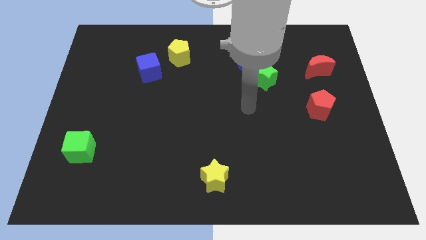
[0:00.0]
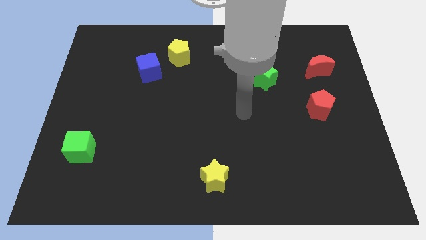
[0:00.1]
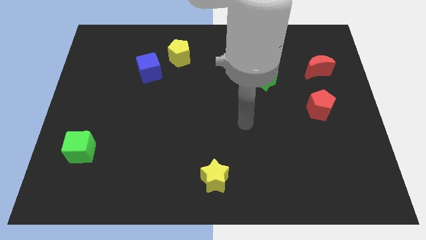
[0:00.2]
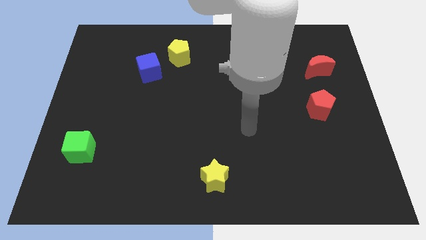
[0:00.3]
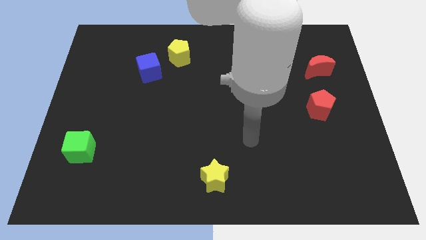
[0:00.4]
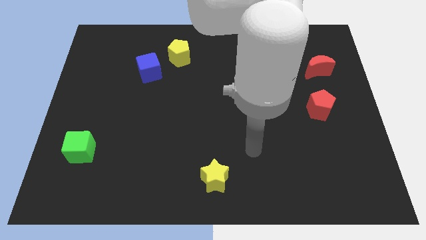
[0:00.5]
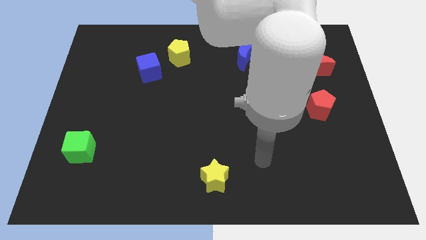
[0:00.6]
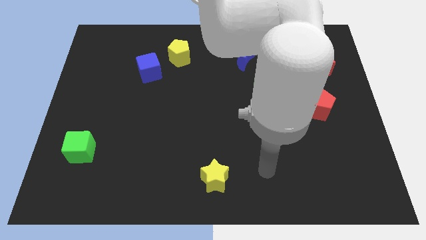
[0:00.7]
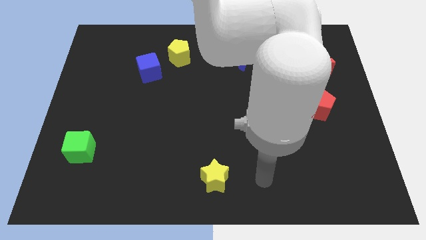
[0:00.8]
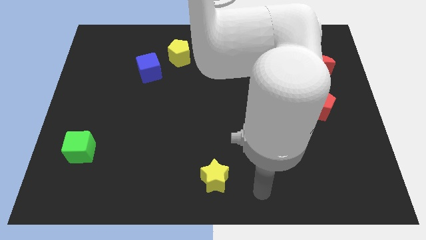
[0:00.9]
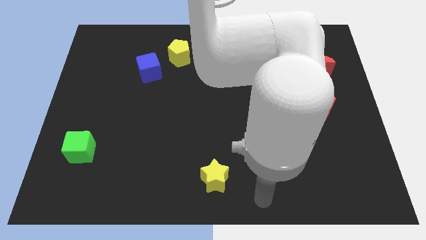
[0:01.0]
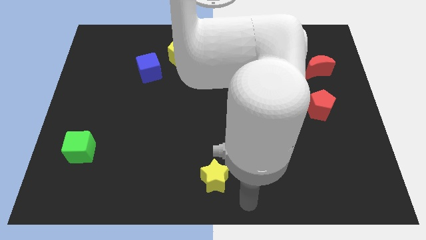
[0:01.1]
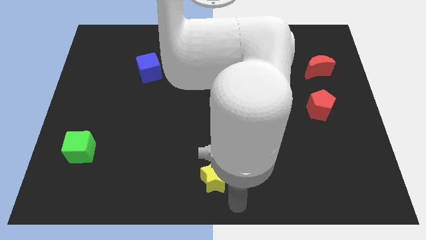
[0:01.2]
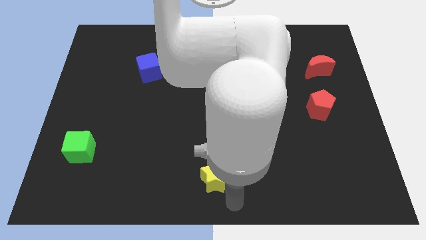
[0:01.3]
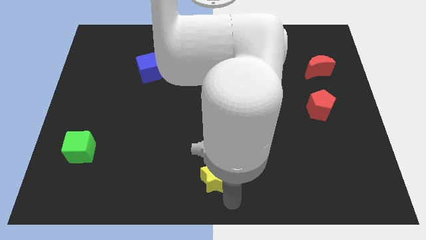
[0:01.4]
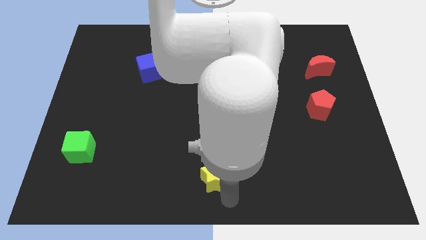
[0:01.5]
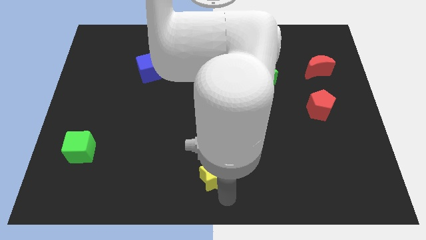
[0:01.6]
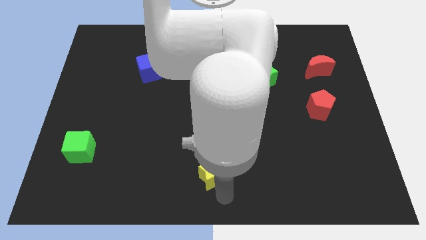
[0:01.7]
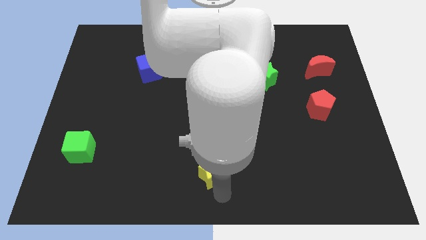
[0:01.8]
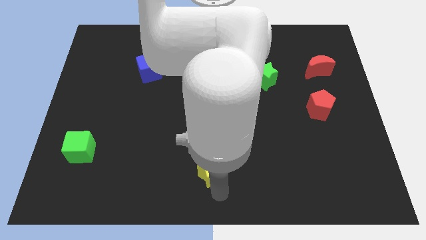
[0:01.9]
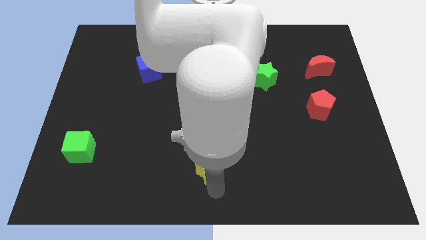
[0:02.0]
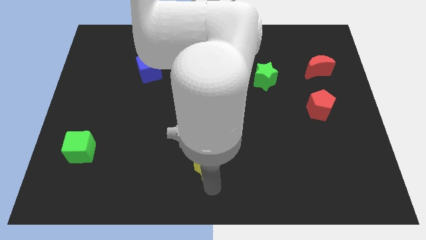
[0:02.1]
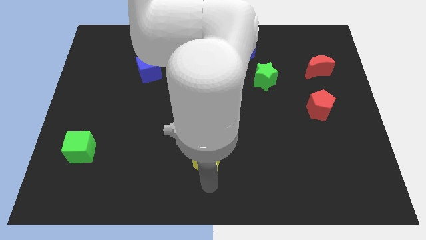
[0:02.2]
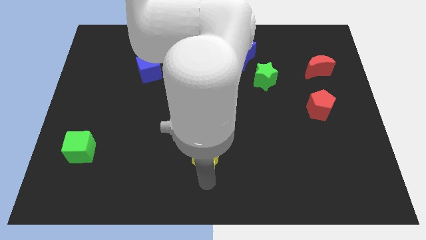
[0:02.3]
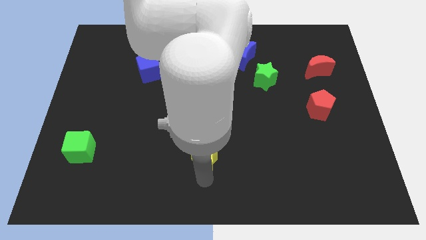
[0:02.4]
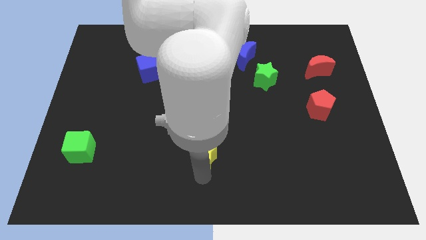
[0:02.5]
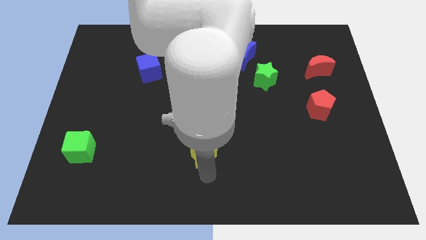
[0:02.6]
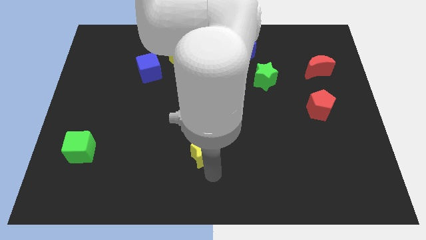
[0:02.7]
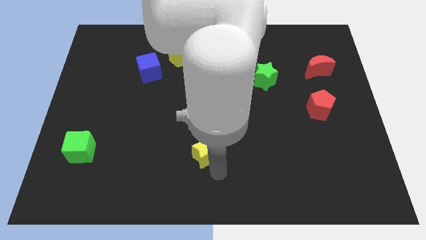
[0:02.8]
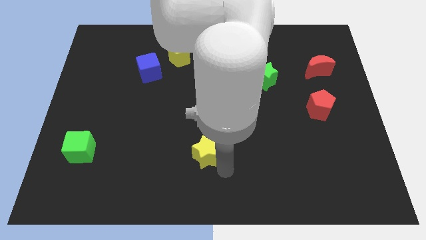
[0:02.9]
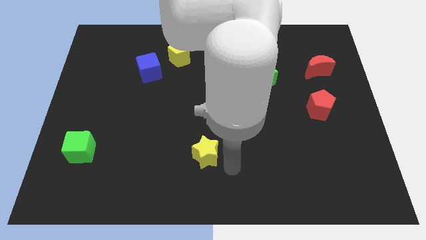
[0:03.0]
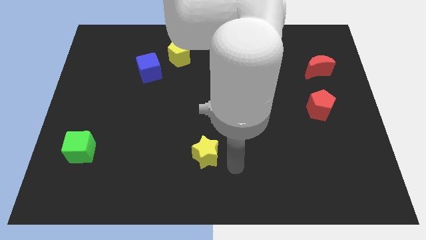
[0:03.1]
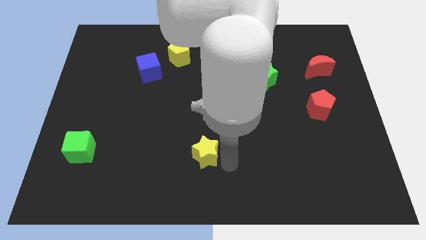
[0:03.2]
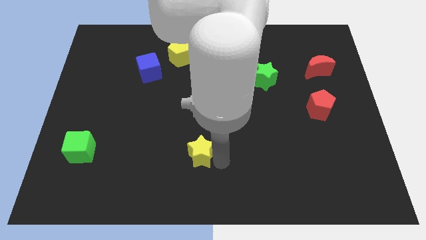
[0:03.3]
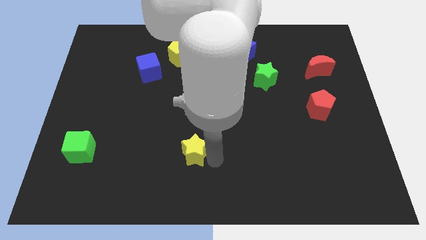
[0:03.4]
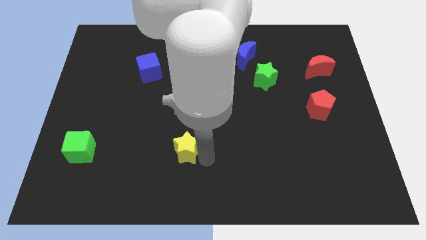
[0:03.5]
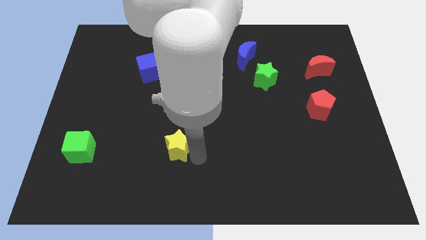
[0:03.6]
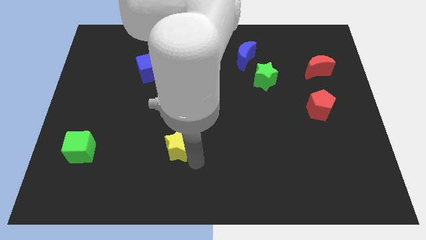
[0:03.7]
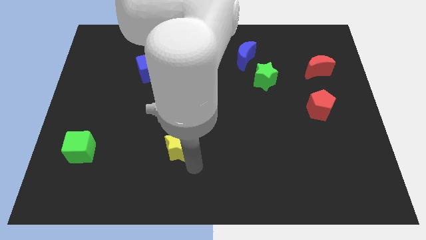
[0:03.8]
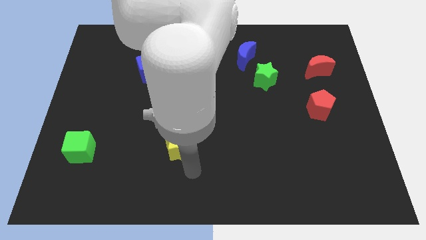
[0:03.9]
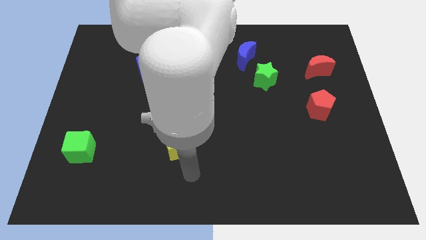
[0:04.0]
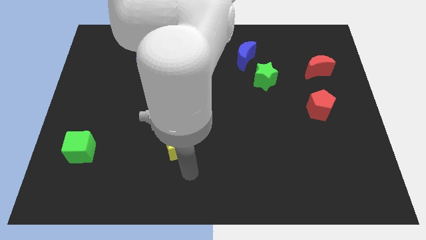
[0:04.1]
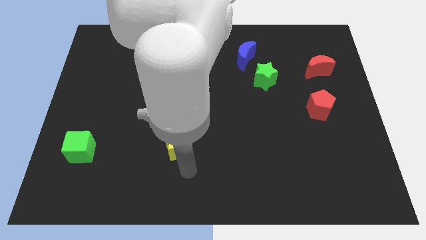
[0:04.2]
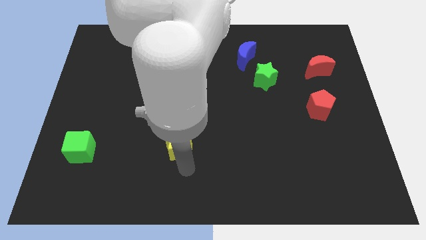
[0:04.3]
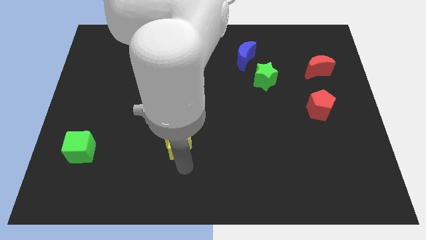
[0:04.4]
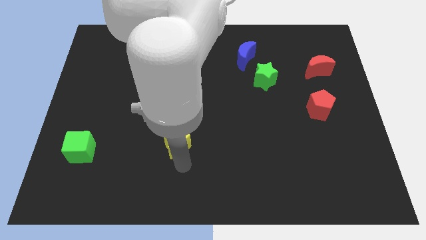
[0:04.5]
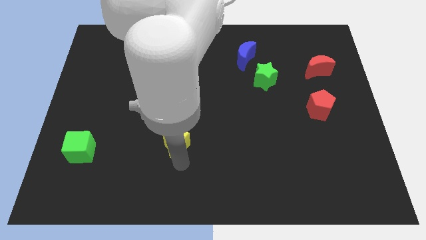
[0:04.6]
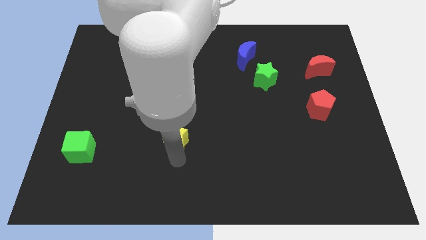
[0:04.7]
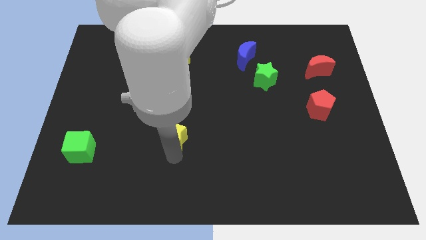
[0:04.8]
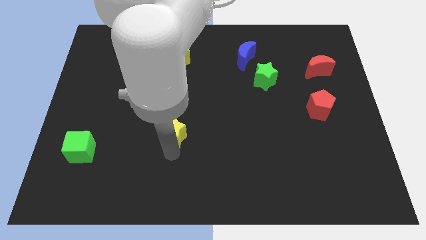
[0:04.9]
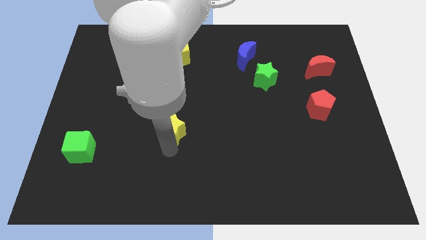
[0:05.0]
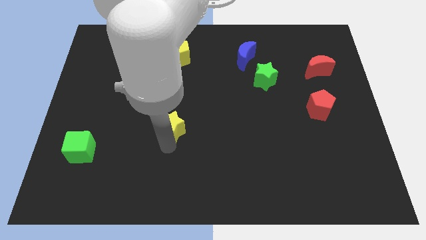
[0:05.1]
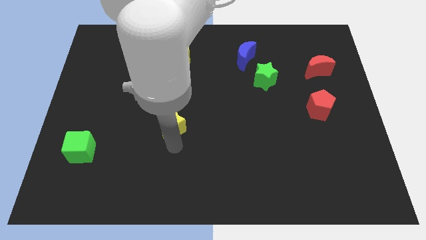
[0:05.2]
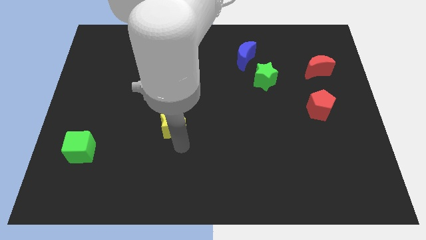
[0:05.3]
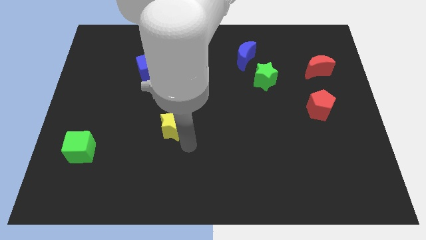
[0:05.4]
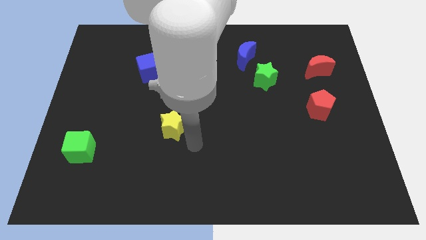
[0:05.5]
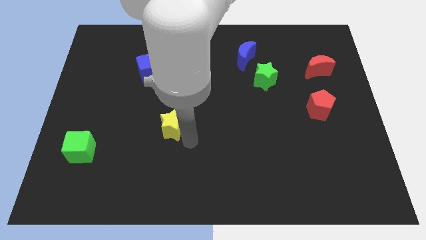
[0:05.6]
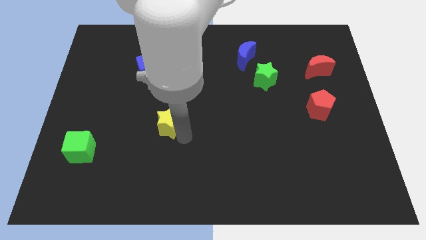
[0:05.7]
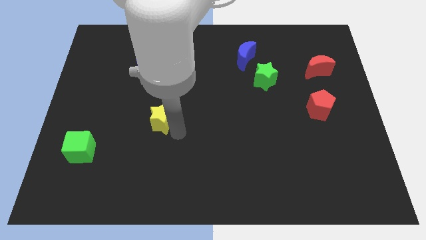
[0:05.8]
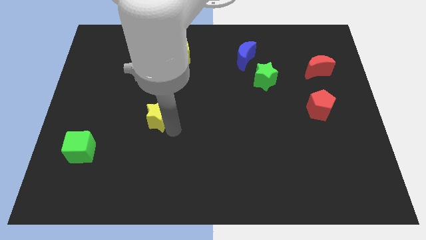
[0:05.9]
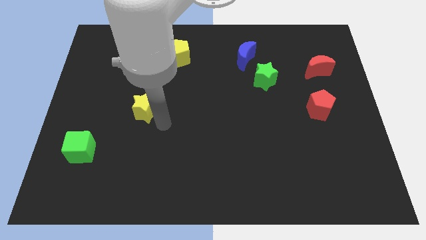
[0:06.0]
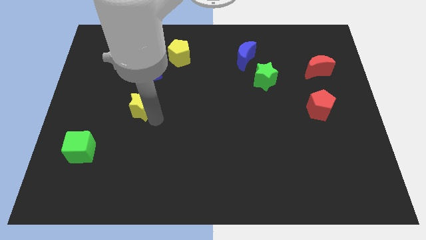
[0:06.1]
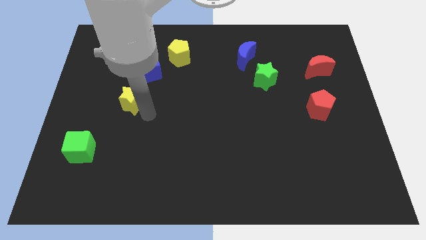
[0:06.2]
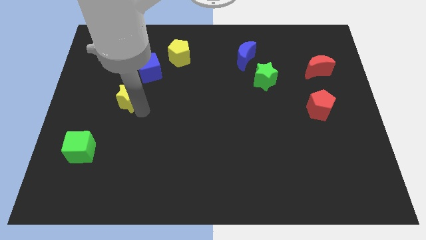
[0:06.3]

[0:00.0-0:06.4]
push the yellow star to the bottom left side of the blue cube
